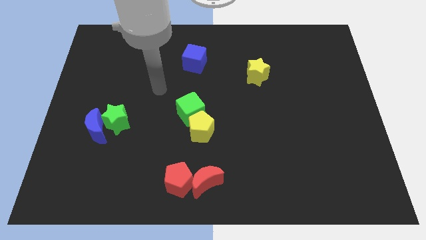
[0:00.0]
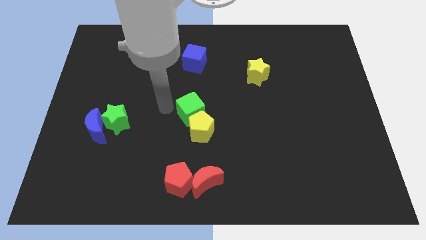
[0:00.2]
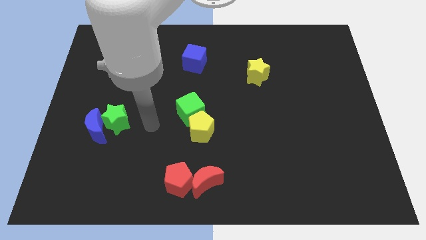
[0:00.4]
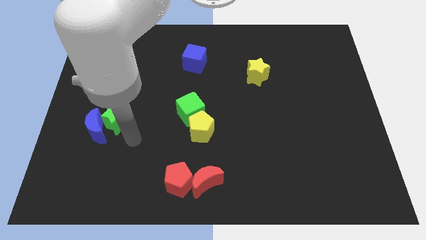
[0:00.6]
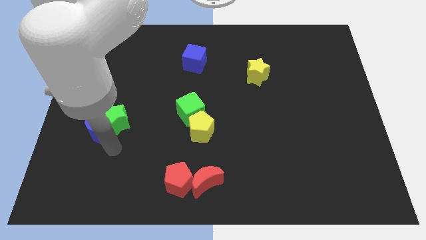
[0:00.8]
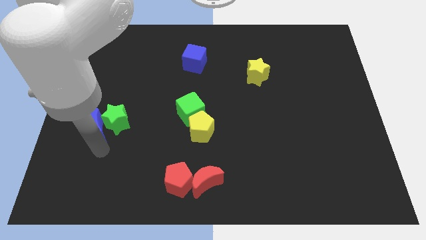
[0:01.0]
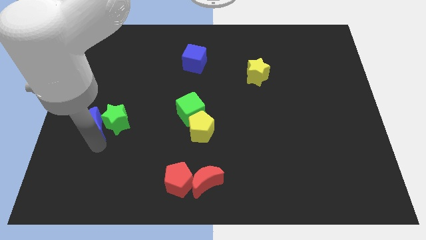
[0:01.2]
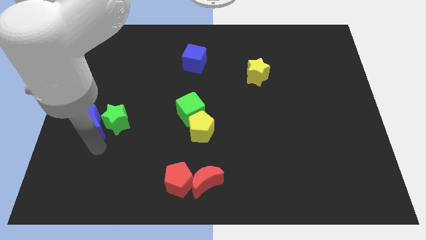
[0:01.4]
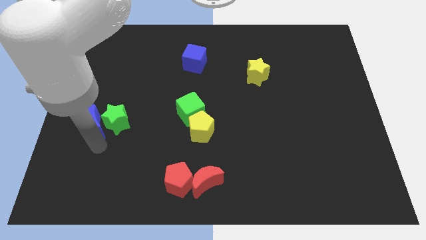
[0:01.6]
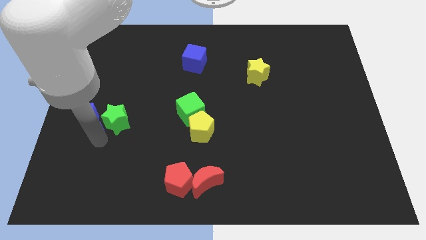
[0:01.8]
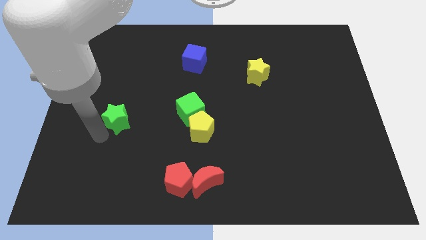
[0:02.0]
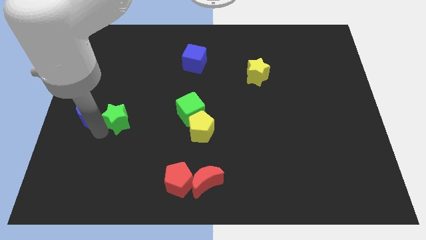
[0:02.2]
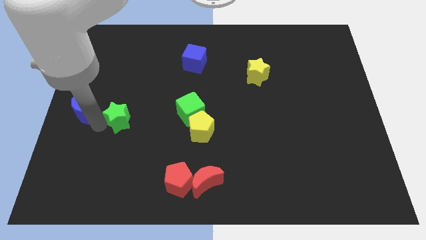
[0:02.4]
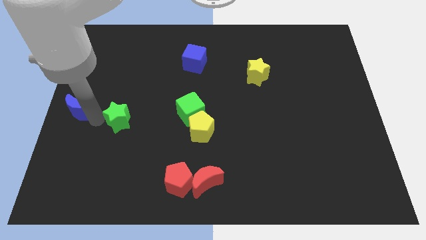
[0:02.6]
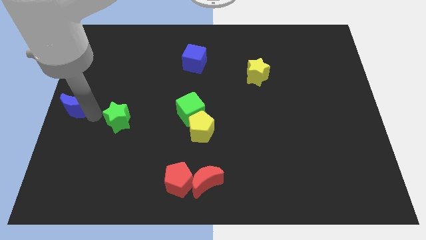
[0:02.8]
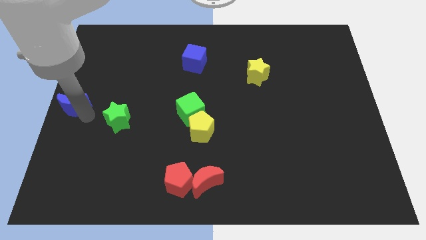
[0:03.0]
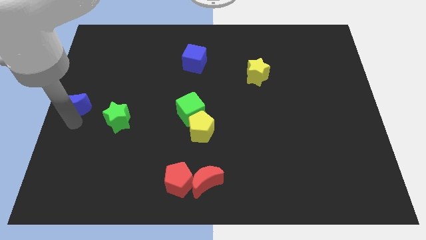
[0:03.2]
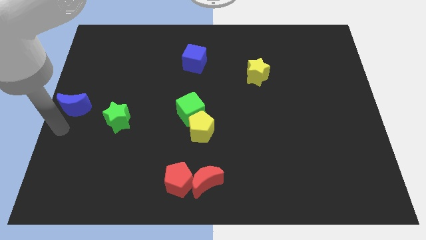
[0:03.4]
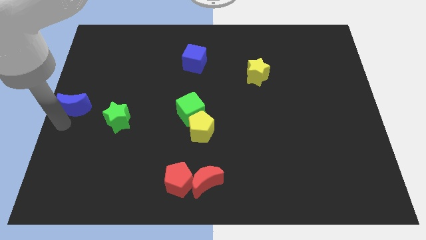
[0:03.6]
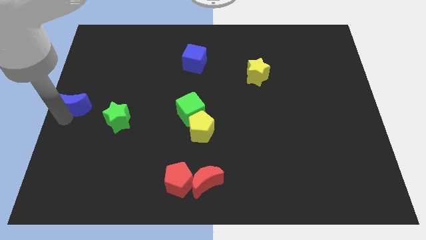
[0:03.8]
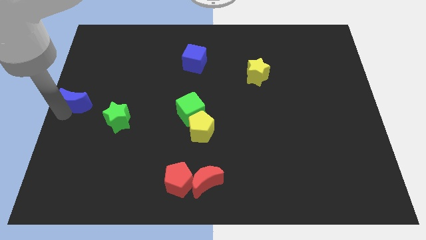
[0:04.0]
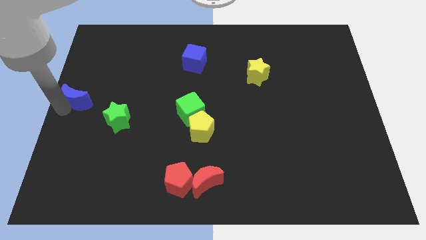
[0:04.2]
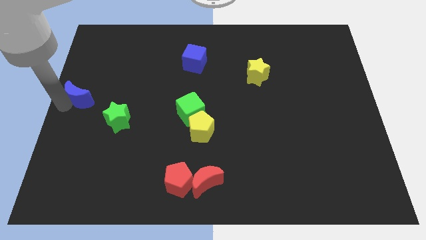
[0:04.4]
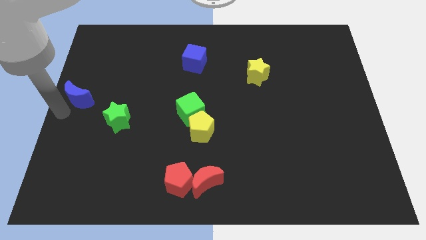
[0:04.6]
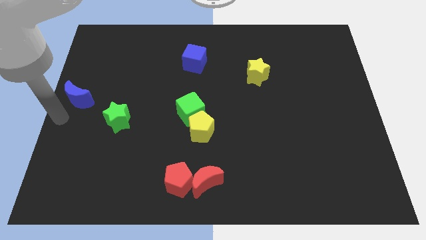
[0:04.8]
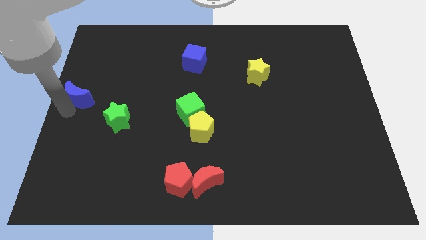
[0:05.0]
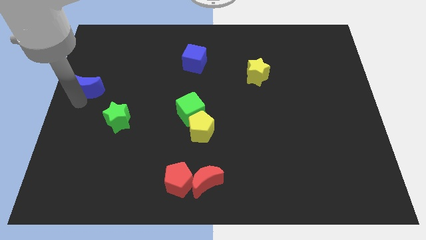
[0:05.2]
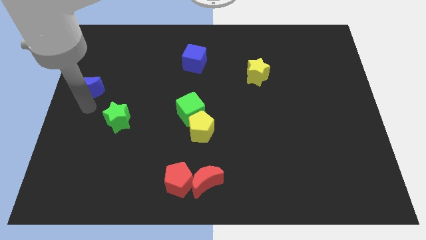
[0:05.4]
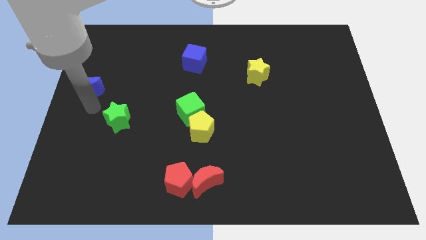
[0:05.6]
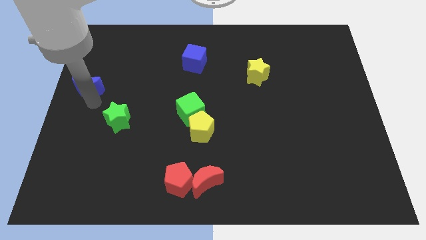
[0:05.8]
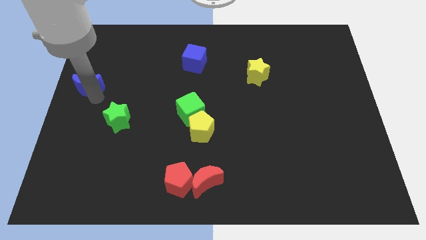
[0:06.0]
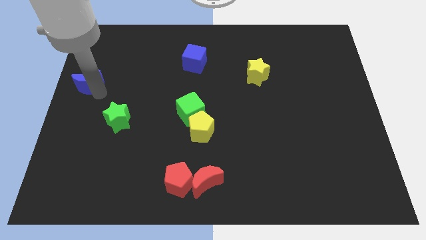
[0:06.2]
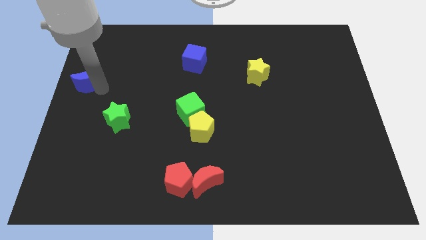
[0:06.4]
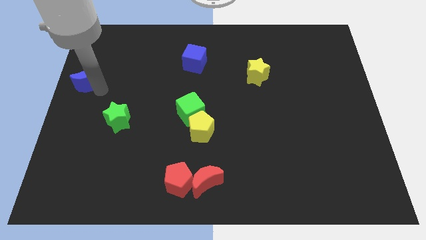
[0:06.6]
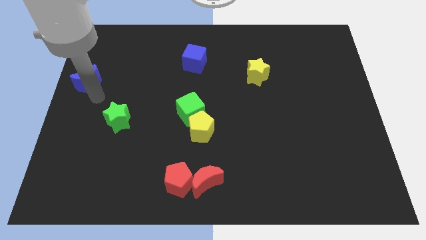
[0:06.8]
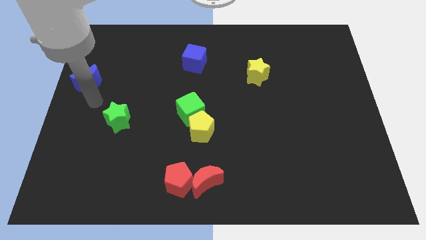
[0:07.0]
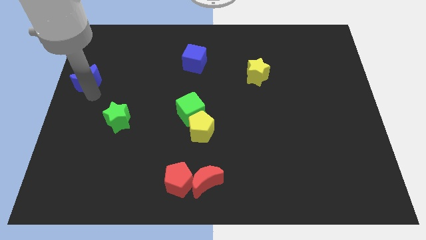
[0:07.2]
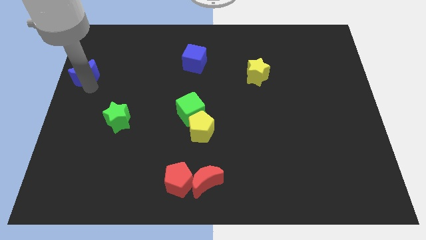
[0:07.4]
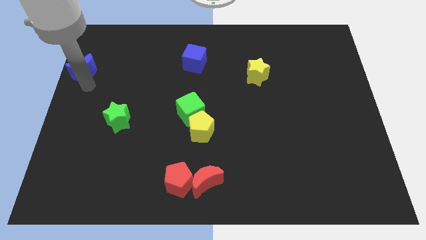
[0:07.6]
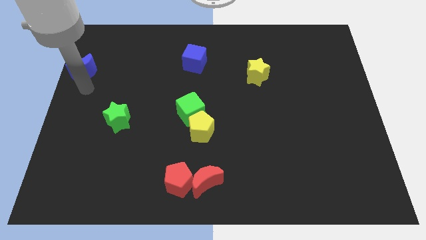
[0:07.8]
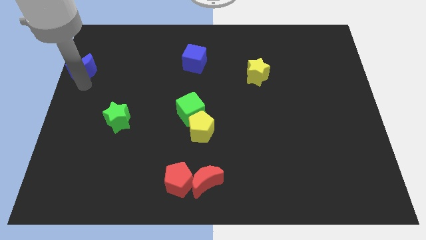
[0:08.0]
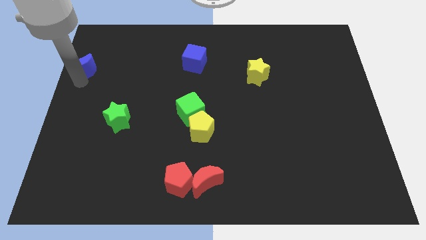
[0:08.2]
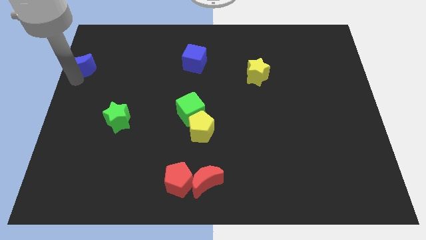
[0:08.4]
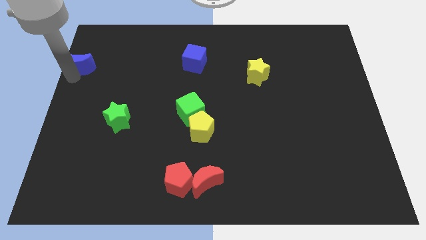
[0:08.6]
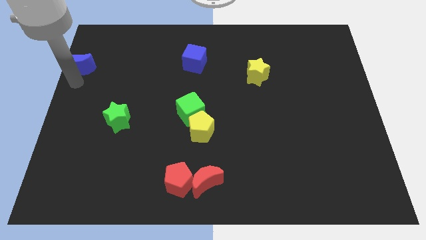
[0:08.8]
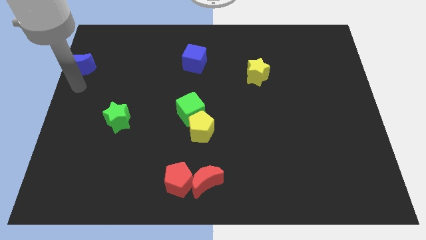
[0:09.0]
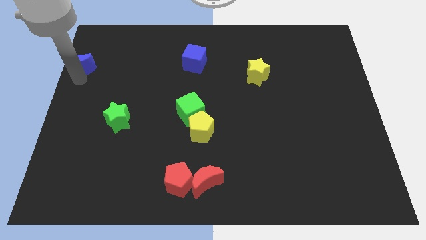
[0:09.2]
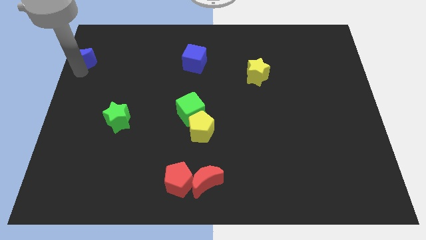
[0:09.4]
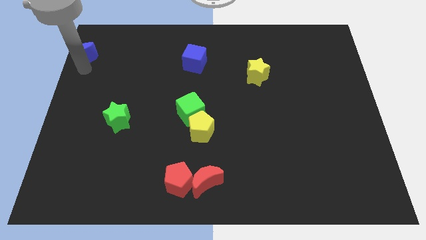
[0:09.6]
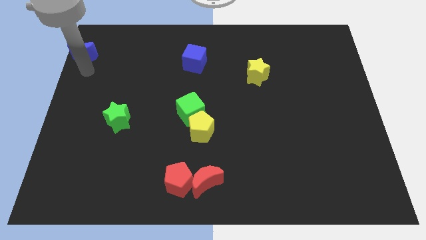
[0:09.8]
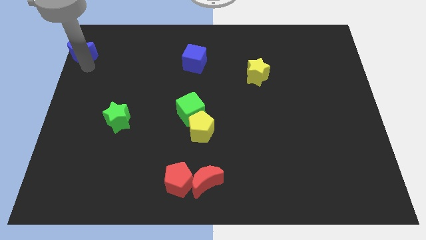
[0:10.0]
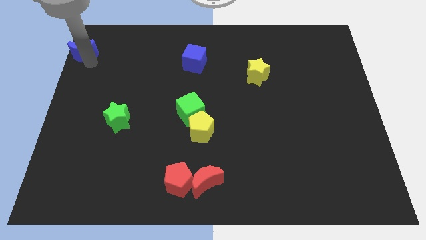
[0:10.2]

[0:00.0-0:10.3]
put the blue moon to the top left

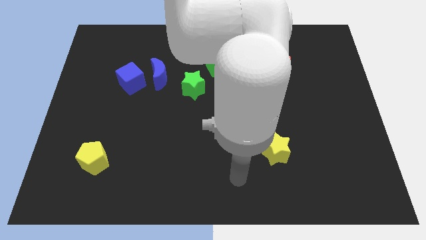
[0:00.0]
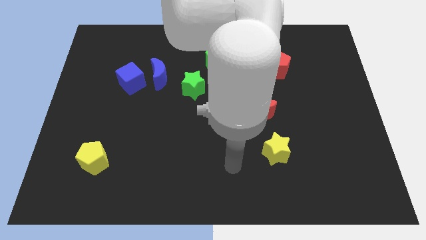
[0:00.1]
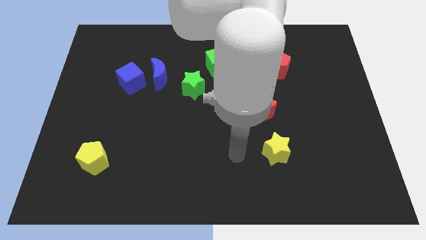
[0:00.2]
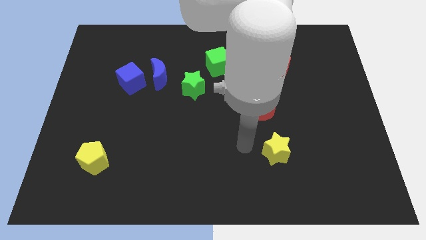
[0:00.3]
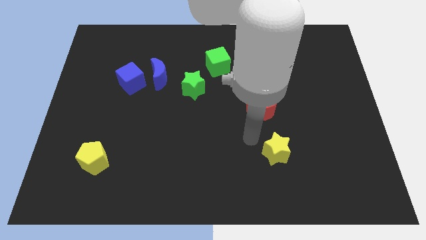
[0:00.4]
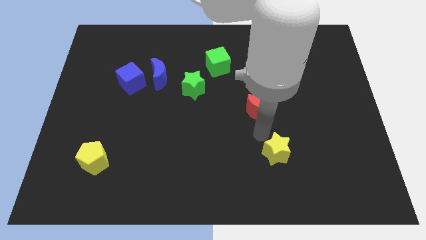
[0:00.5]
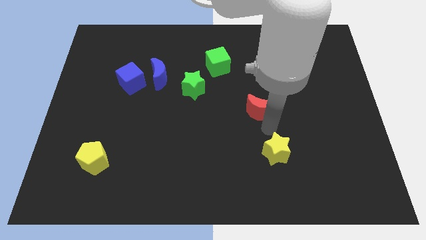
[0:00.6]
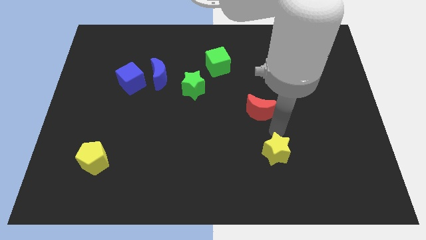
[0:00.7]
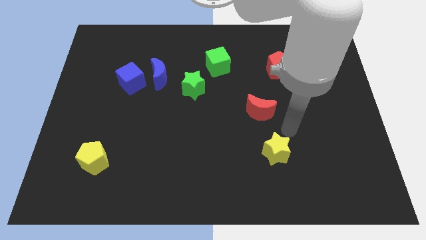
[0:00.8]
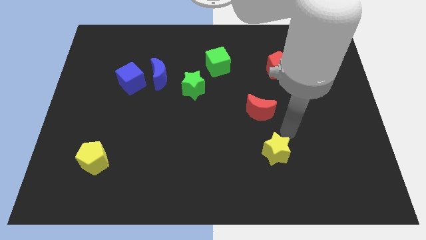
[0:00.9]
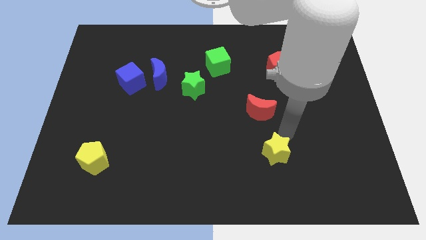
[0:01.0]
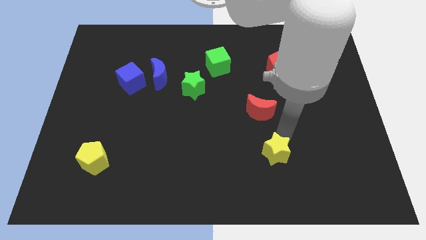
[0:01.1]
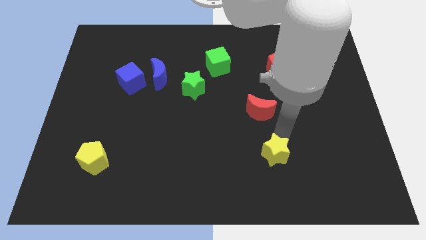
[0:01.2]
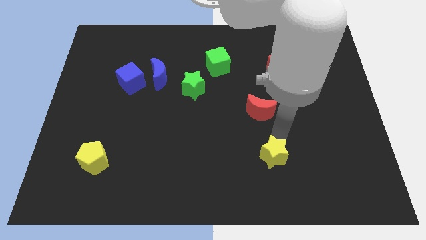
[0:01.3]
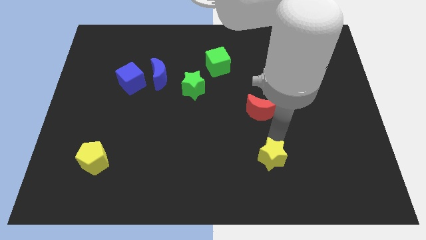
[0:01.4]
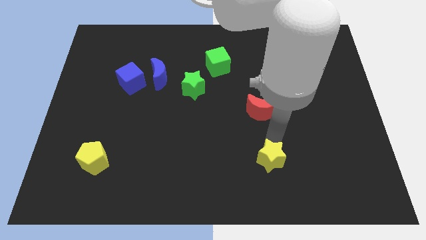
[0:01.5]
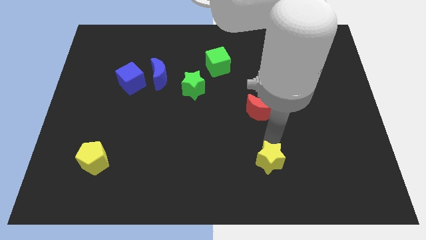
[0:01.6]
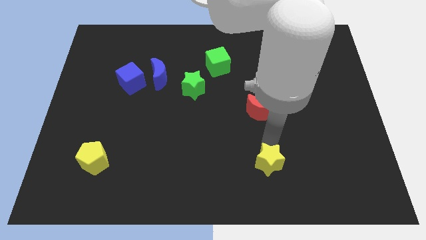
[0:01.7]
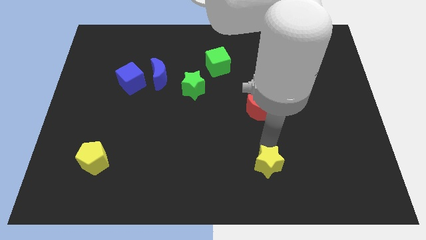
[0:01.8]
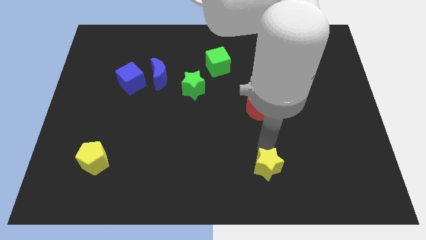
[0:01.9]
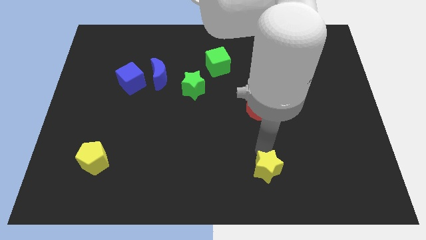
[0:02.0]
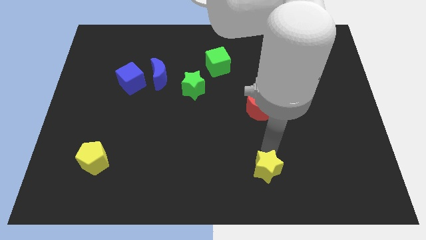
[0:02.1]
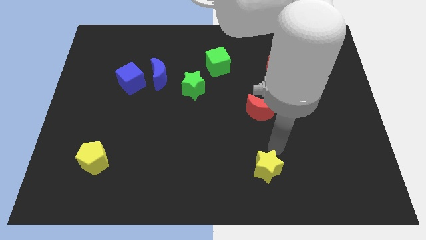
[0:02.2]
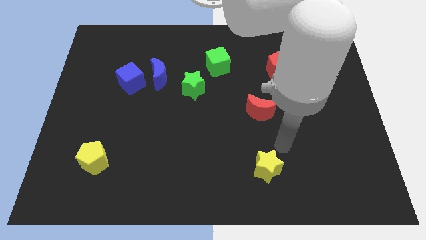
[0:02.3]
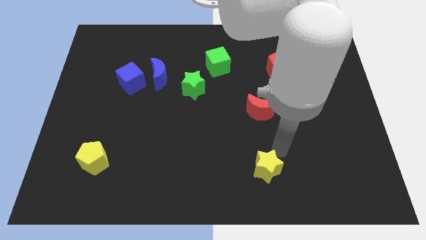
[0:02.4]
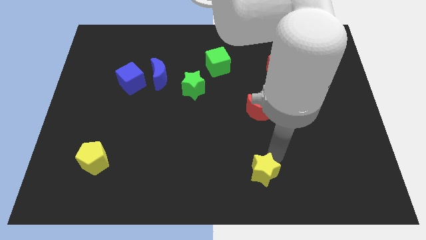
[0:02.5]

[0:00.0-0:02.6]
move the yellow star to the bottom

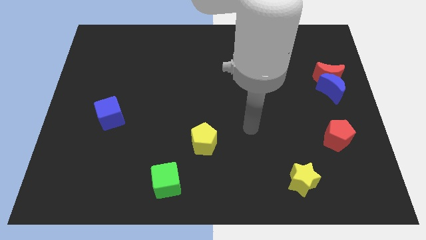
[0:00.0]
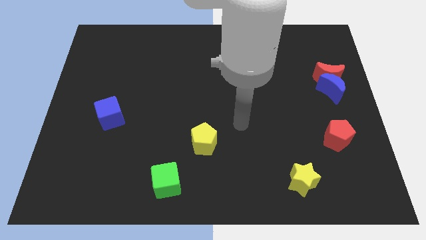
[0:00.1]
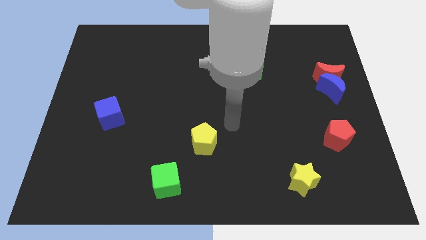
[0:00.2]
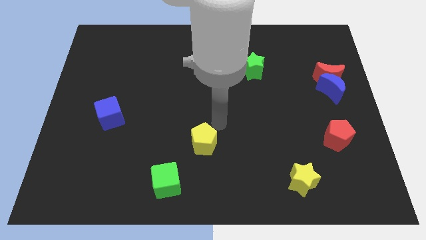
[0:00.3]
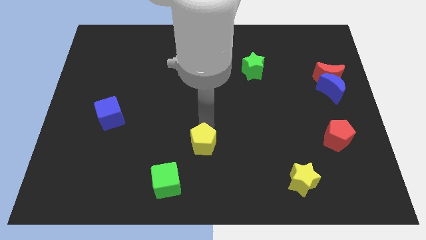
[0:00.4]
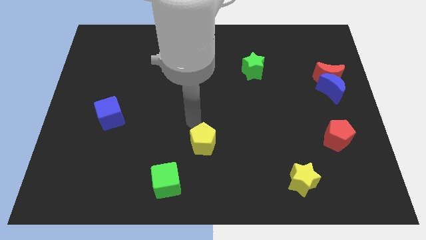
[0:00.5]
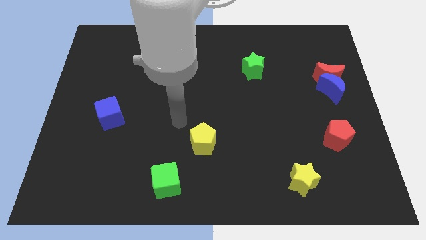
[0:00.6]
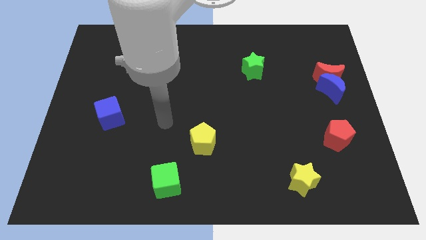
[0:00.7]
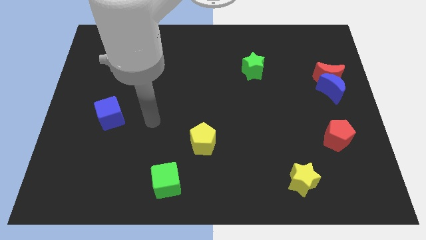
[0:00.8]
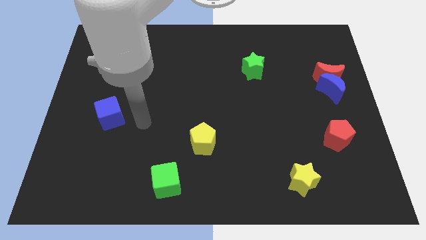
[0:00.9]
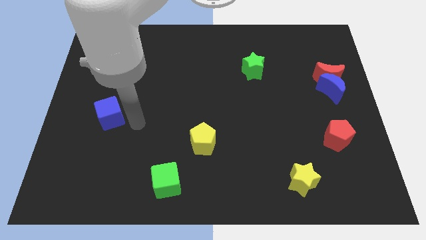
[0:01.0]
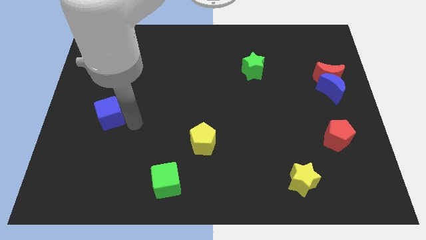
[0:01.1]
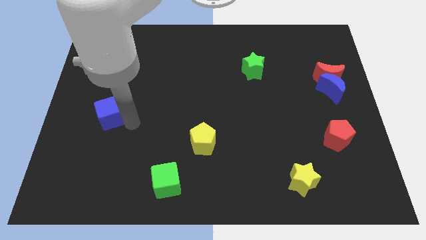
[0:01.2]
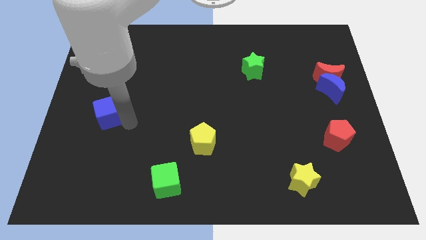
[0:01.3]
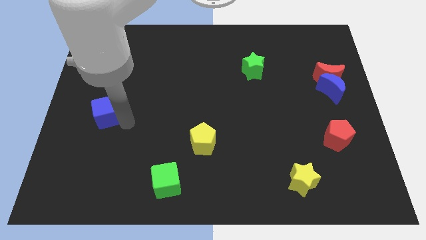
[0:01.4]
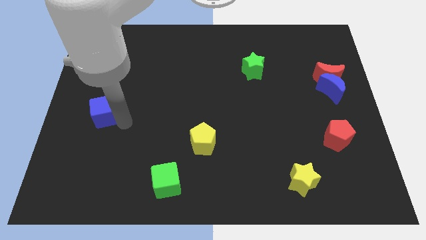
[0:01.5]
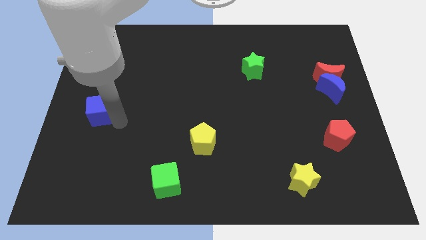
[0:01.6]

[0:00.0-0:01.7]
push the blue cube to the center left
